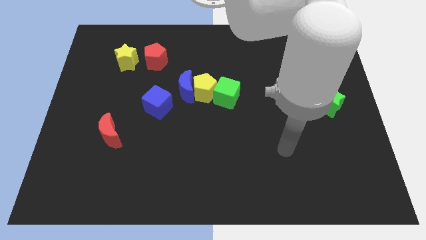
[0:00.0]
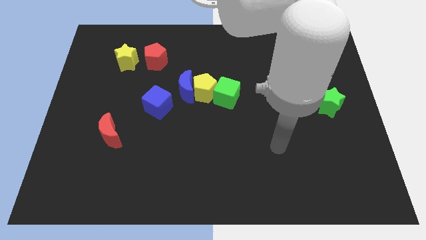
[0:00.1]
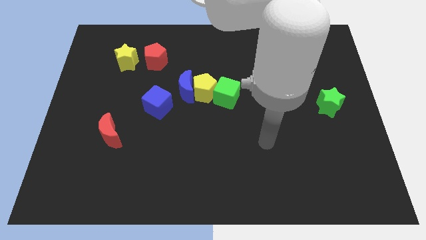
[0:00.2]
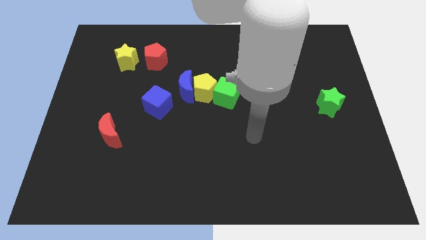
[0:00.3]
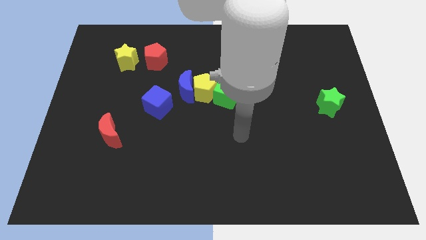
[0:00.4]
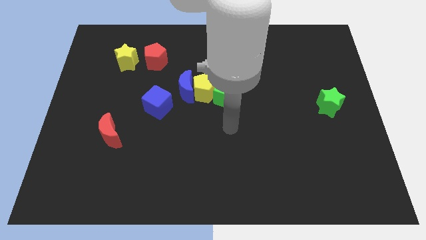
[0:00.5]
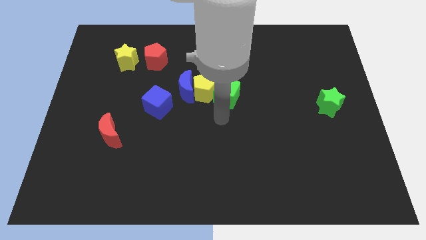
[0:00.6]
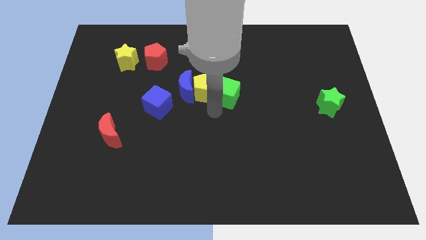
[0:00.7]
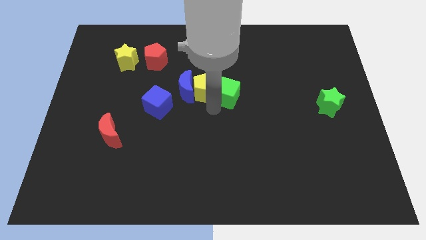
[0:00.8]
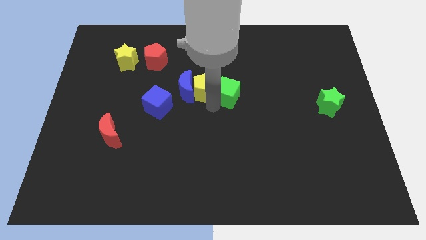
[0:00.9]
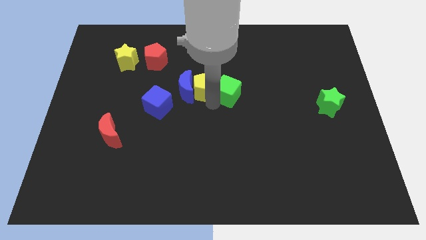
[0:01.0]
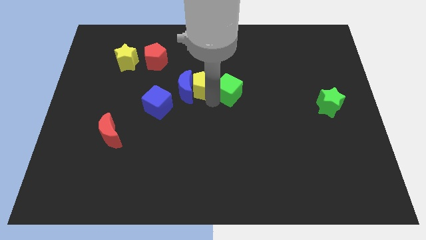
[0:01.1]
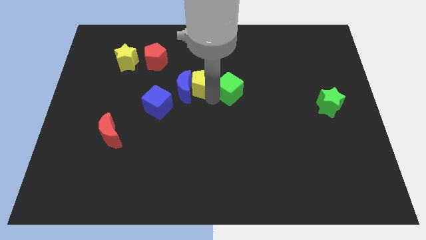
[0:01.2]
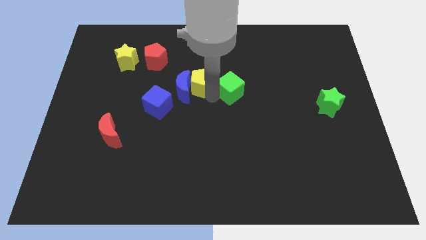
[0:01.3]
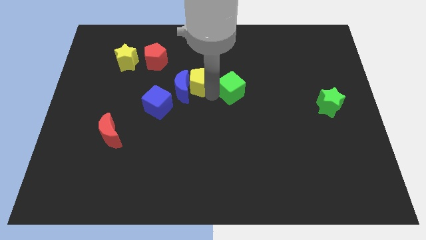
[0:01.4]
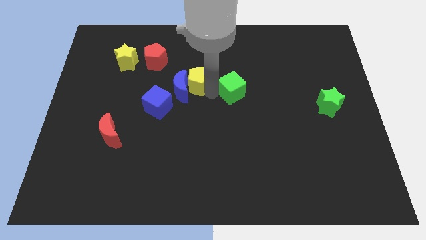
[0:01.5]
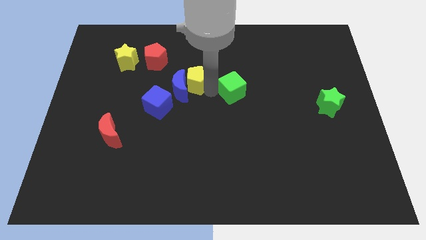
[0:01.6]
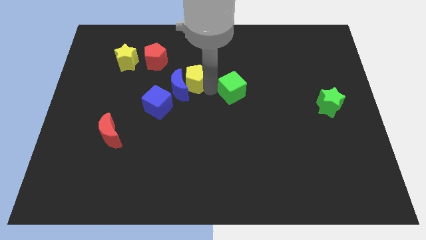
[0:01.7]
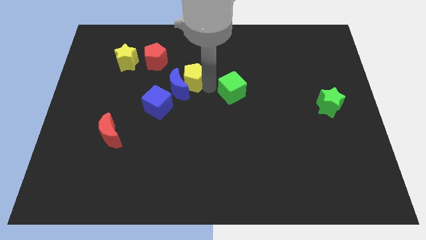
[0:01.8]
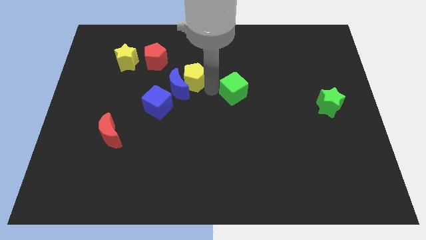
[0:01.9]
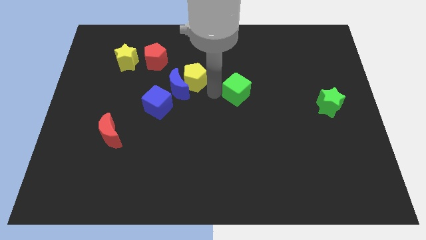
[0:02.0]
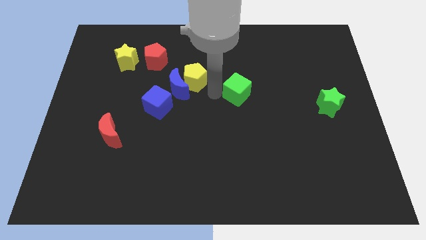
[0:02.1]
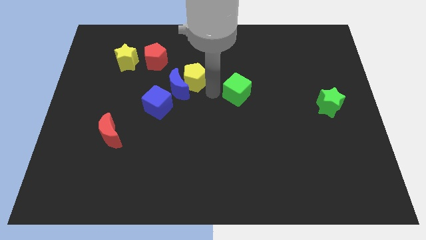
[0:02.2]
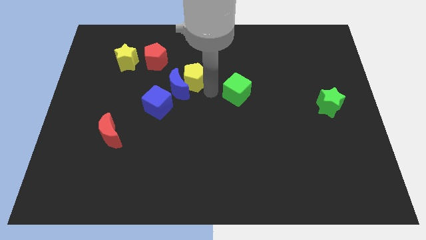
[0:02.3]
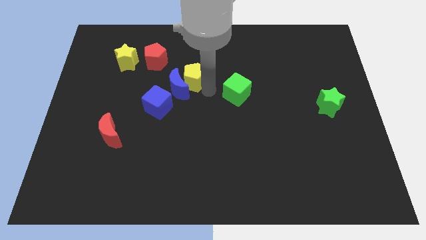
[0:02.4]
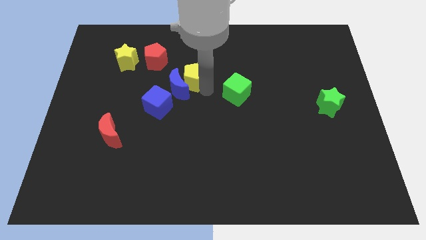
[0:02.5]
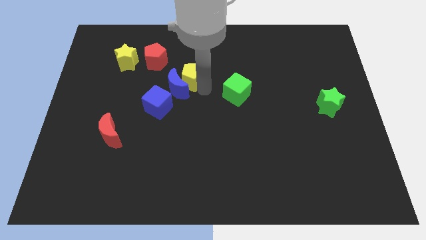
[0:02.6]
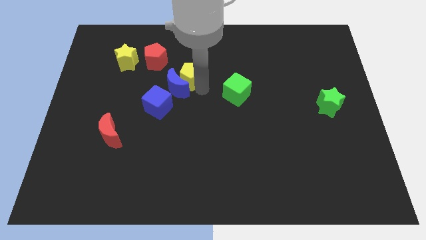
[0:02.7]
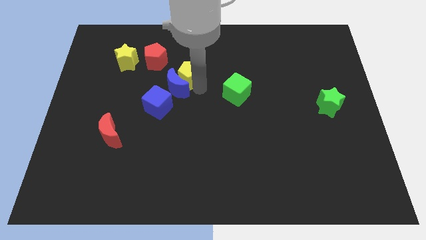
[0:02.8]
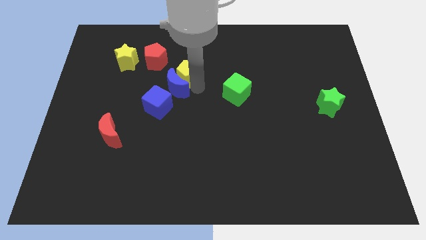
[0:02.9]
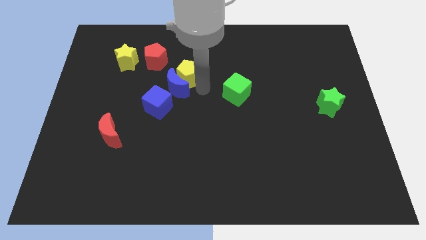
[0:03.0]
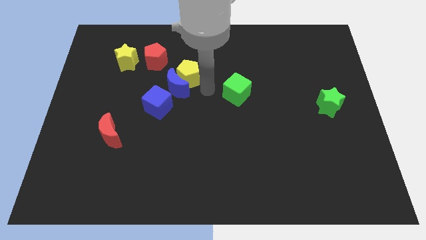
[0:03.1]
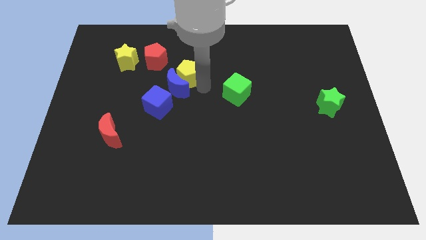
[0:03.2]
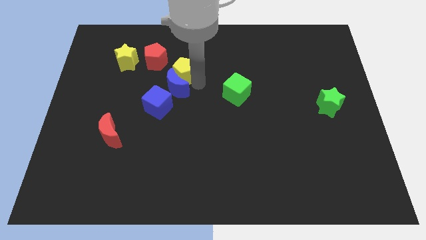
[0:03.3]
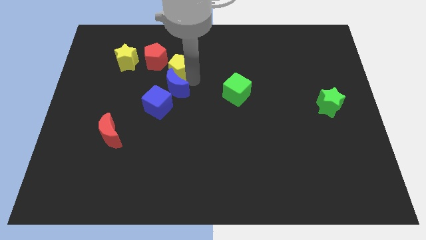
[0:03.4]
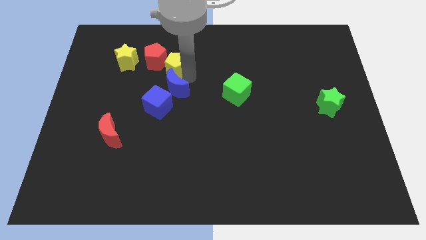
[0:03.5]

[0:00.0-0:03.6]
pull the yellow pentagon apart from the blue moon and green cube

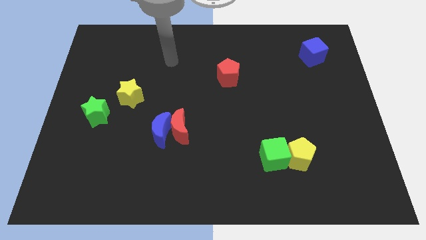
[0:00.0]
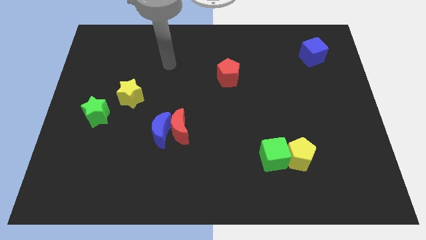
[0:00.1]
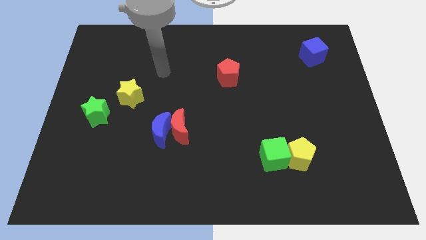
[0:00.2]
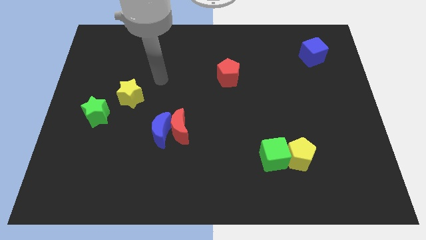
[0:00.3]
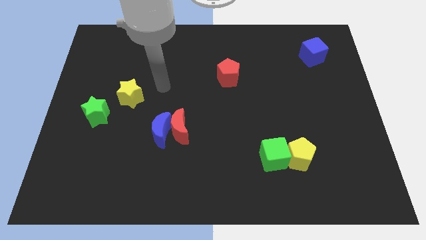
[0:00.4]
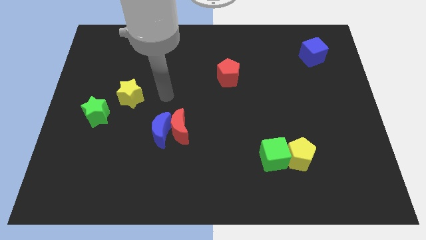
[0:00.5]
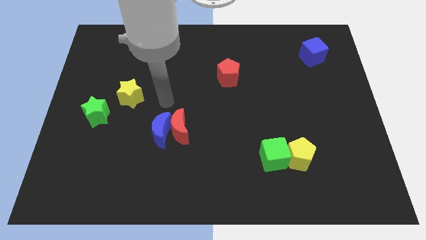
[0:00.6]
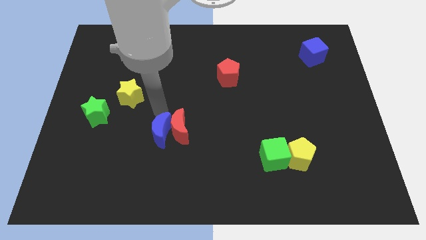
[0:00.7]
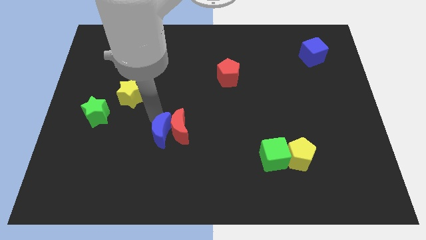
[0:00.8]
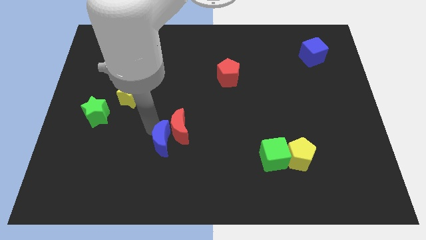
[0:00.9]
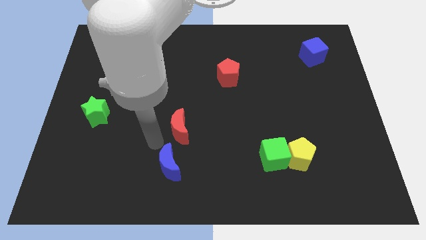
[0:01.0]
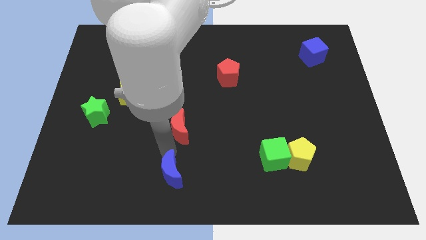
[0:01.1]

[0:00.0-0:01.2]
pull the red moon apart from the blue moon

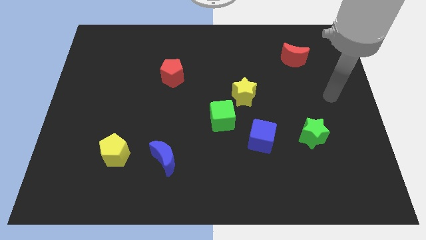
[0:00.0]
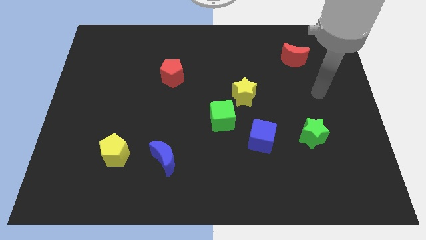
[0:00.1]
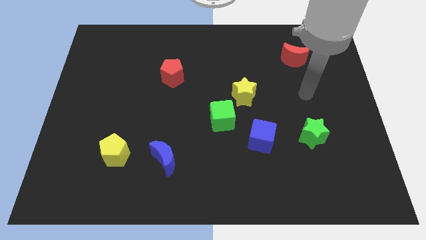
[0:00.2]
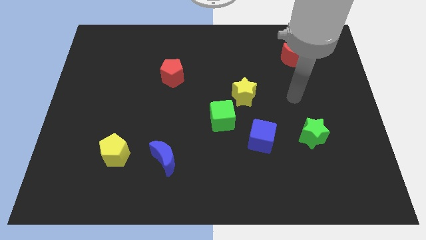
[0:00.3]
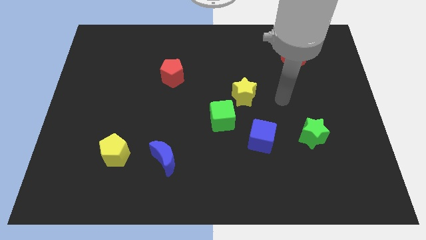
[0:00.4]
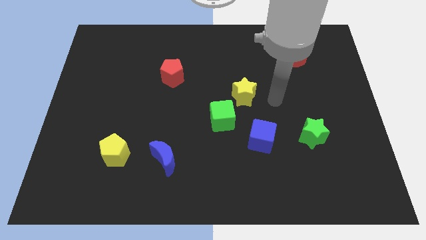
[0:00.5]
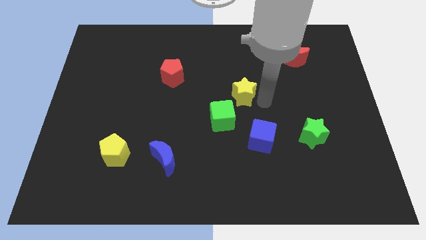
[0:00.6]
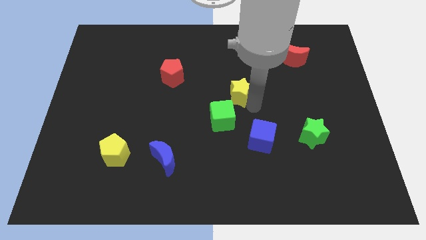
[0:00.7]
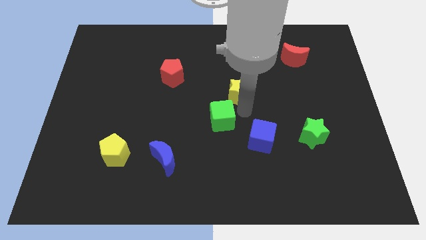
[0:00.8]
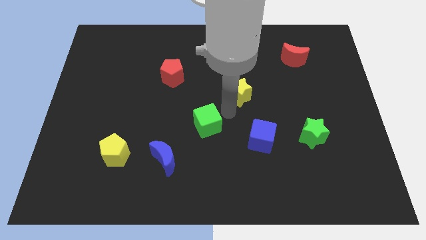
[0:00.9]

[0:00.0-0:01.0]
pull the yellow star apart from the green cube

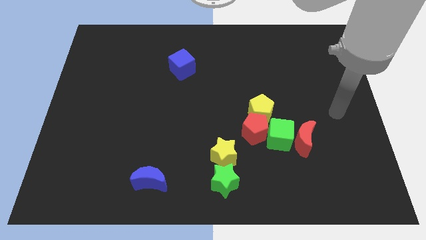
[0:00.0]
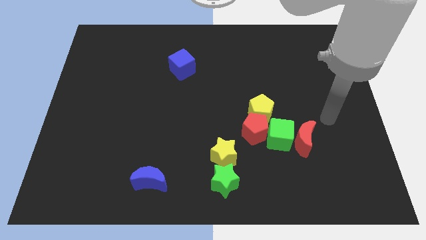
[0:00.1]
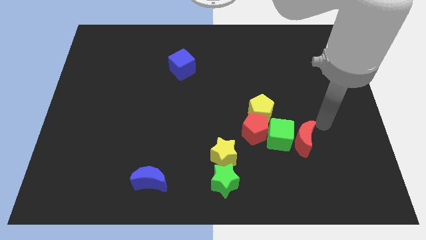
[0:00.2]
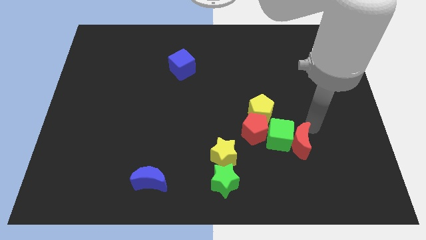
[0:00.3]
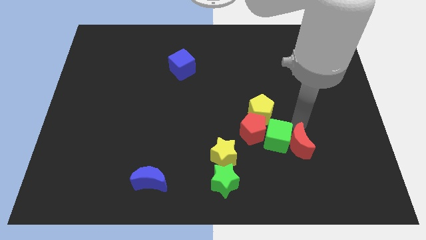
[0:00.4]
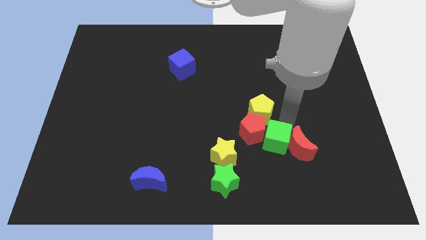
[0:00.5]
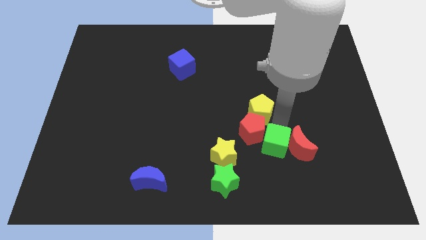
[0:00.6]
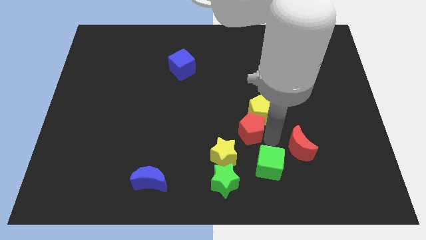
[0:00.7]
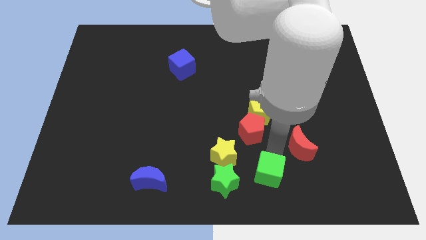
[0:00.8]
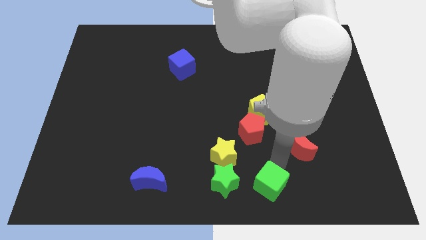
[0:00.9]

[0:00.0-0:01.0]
pull the red moon apart from the green cube

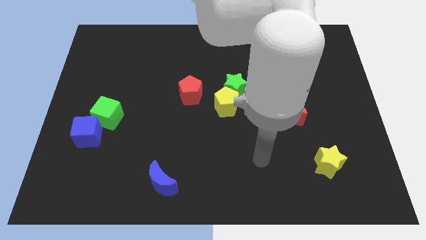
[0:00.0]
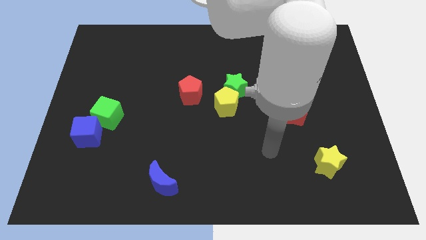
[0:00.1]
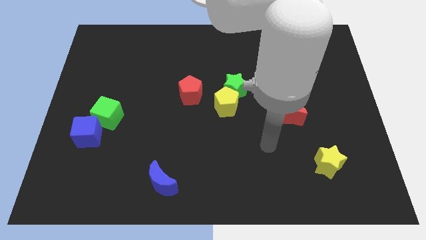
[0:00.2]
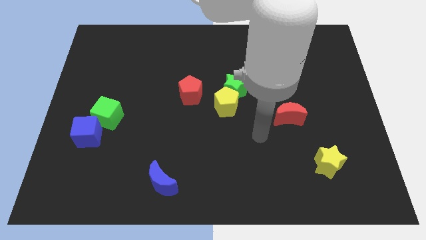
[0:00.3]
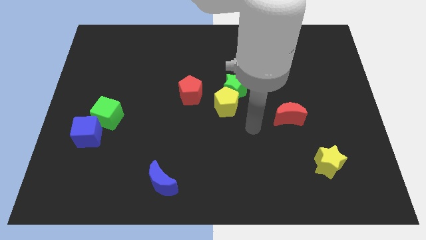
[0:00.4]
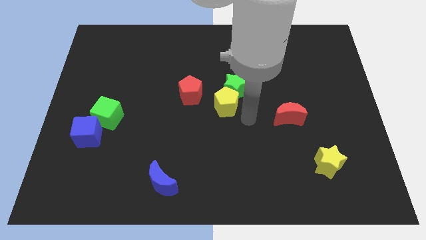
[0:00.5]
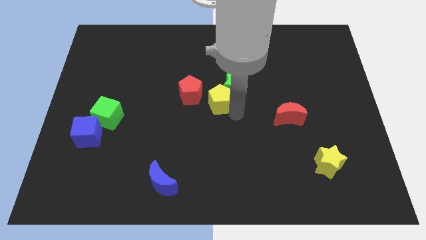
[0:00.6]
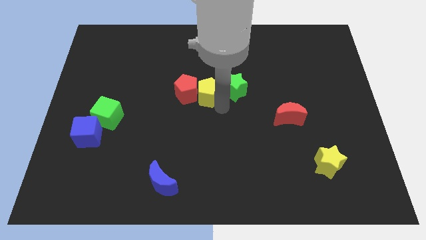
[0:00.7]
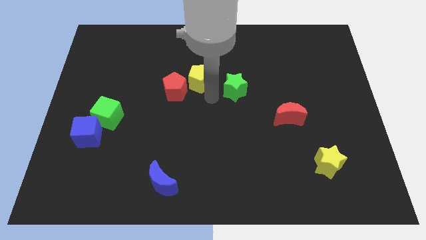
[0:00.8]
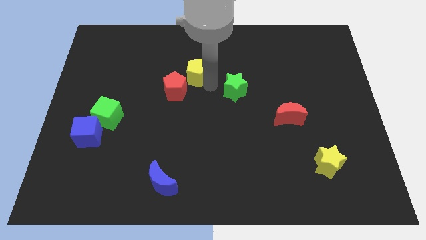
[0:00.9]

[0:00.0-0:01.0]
separate the green star from the yellow pentagon

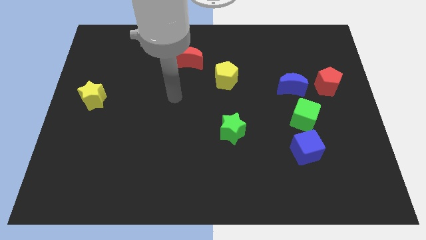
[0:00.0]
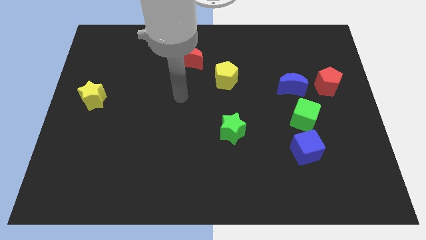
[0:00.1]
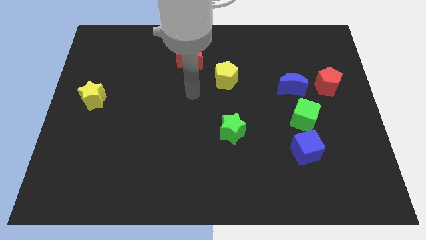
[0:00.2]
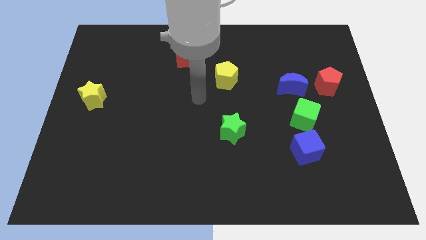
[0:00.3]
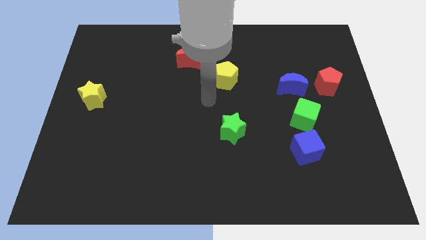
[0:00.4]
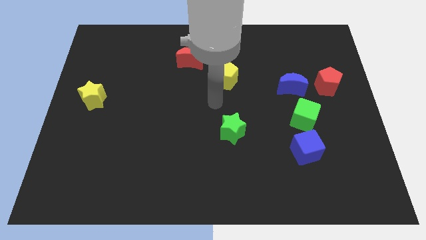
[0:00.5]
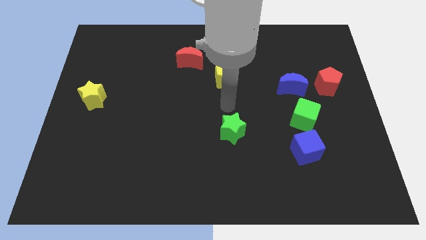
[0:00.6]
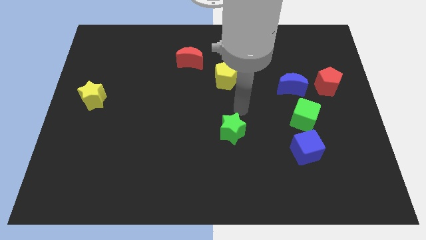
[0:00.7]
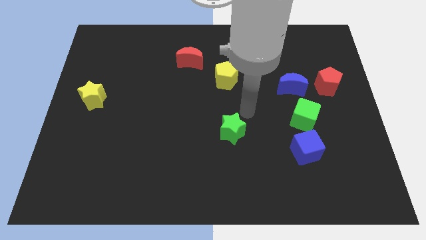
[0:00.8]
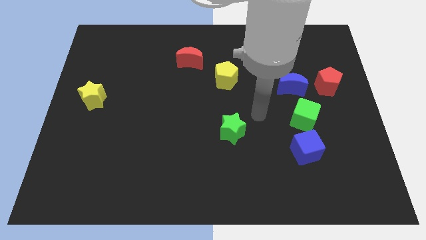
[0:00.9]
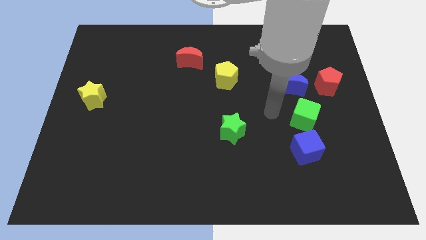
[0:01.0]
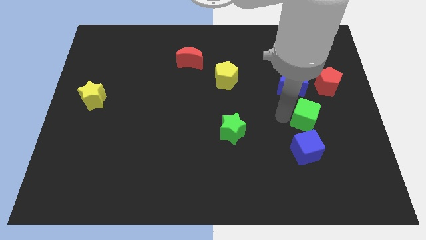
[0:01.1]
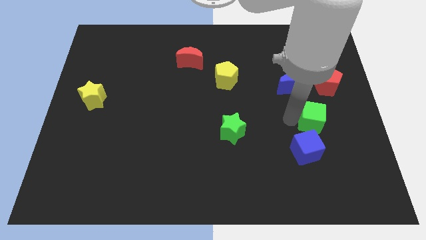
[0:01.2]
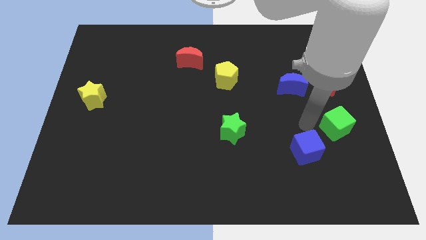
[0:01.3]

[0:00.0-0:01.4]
separate the blue cube from the green cube
